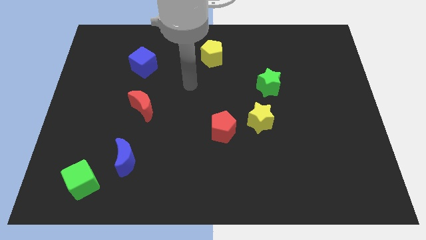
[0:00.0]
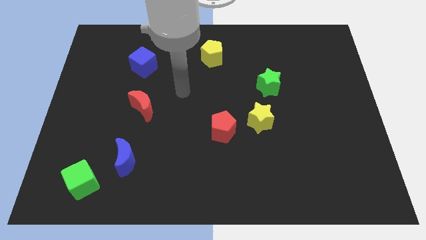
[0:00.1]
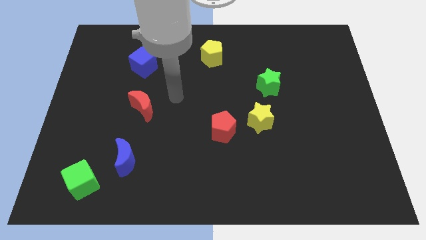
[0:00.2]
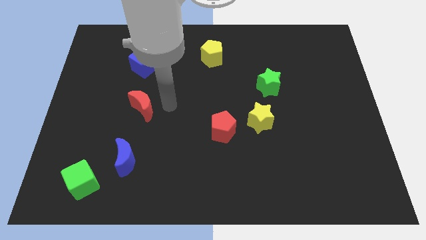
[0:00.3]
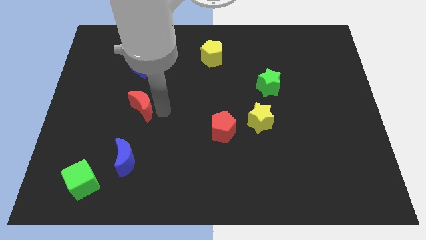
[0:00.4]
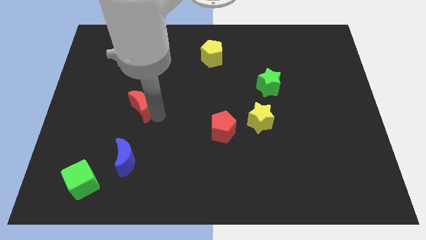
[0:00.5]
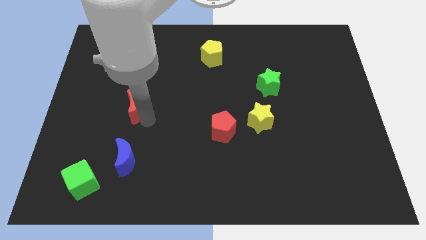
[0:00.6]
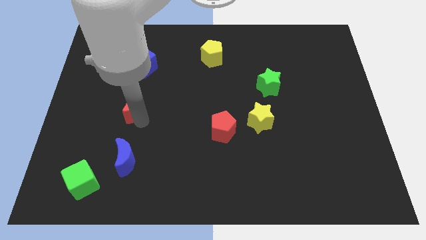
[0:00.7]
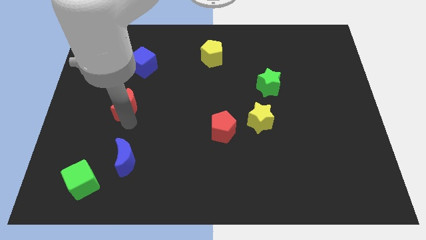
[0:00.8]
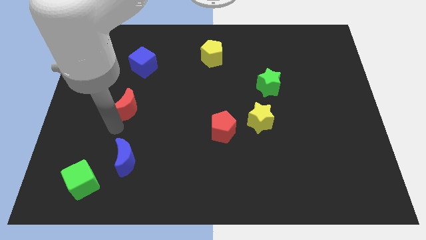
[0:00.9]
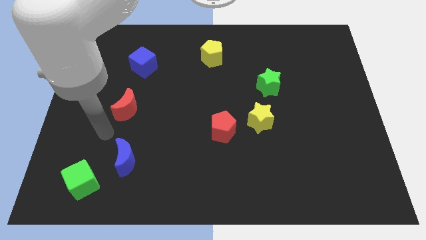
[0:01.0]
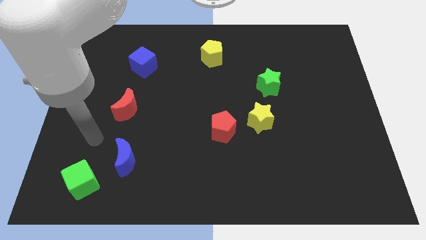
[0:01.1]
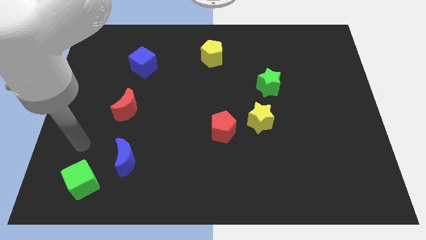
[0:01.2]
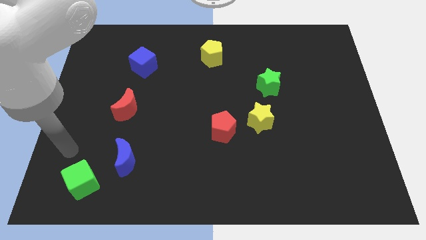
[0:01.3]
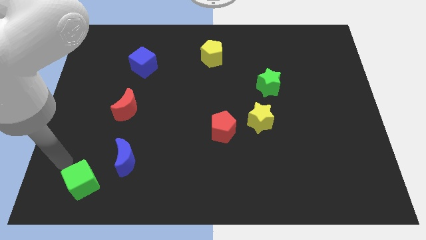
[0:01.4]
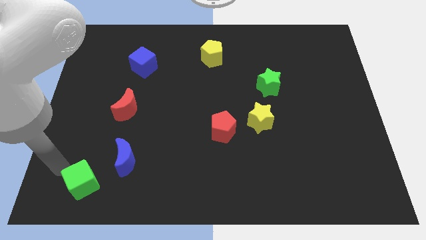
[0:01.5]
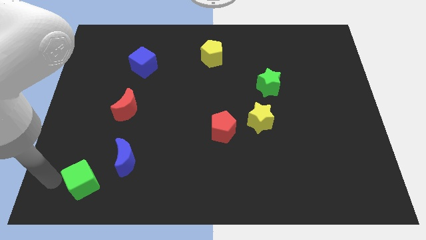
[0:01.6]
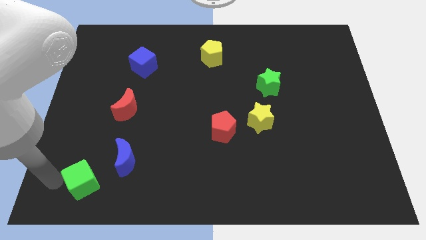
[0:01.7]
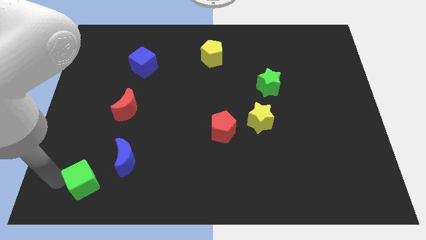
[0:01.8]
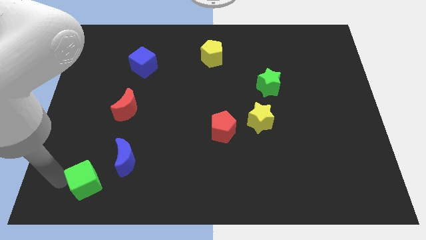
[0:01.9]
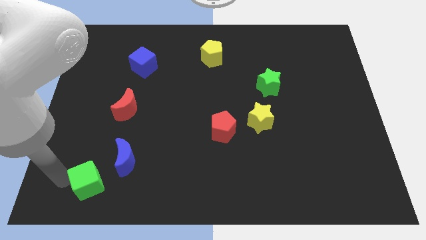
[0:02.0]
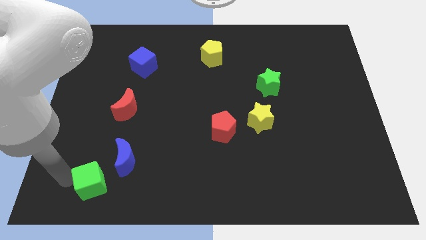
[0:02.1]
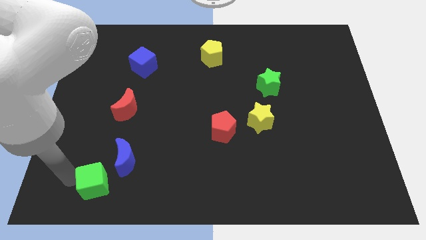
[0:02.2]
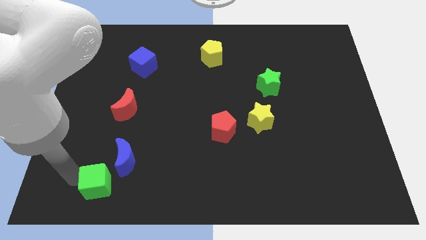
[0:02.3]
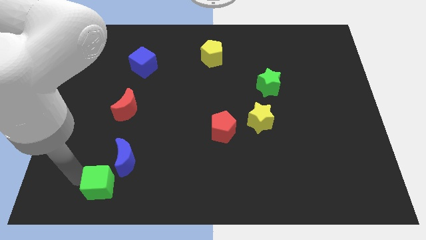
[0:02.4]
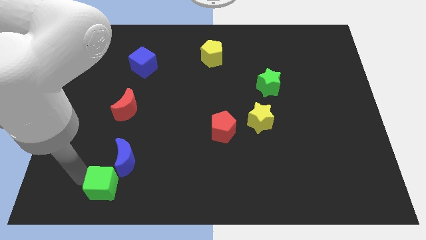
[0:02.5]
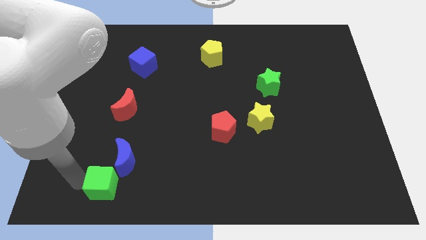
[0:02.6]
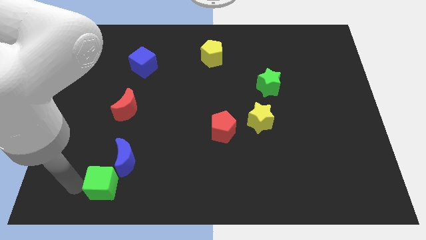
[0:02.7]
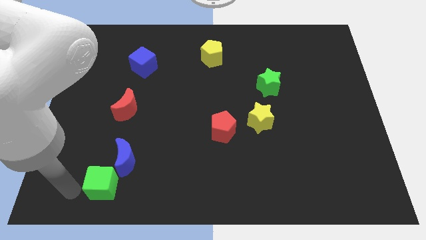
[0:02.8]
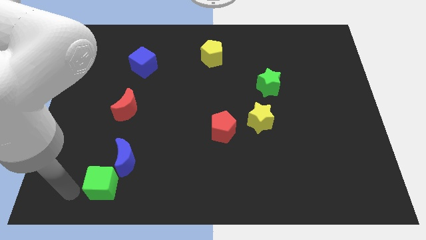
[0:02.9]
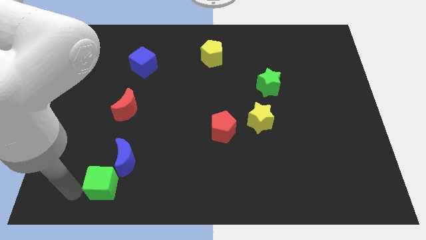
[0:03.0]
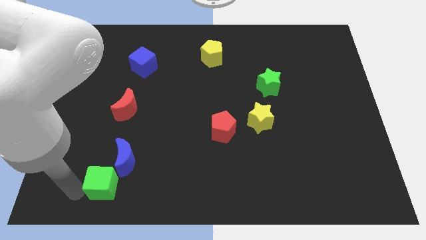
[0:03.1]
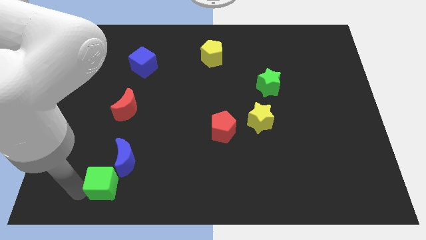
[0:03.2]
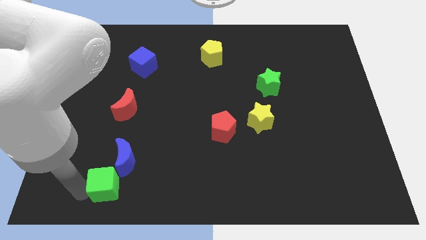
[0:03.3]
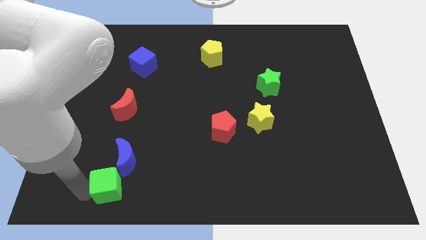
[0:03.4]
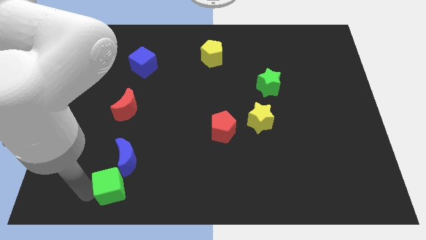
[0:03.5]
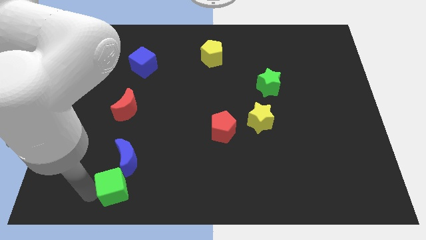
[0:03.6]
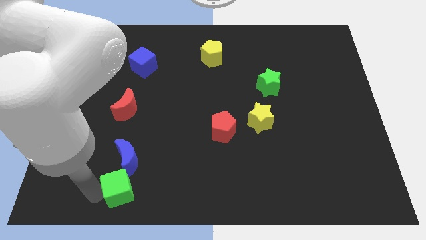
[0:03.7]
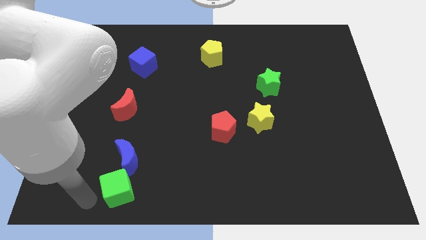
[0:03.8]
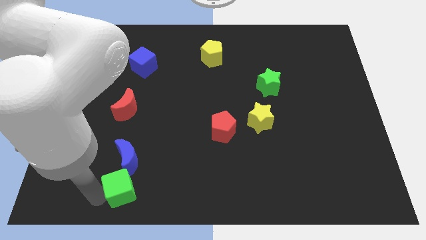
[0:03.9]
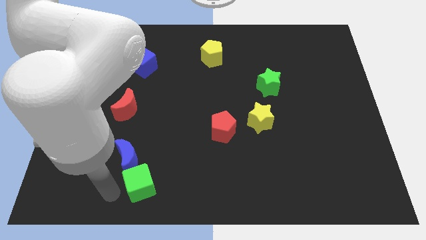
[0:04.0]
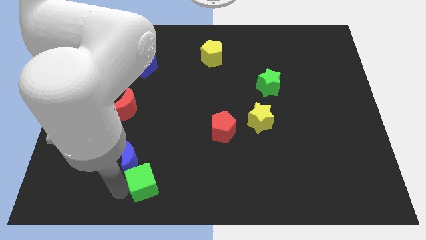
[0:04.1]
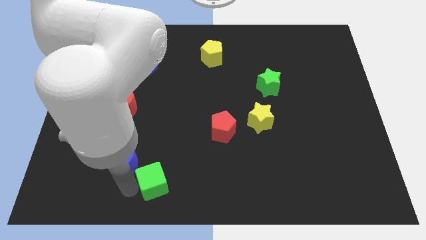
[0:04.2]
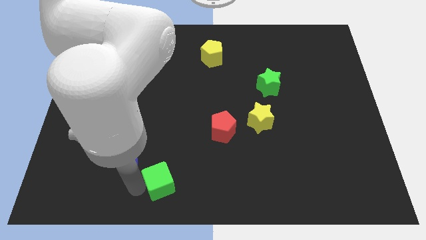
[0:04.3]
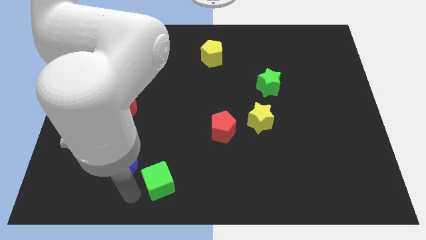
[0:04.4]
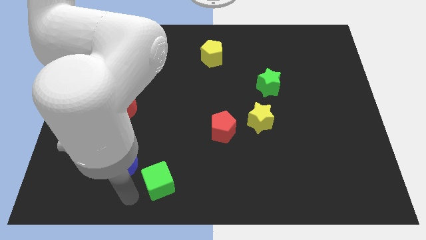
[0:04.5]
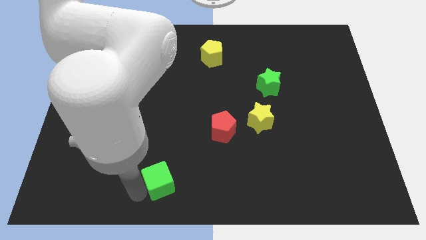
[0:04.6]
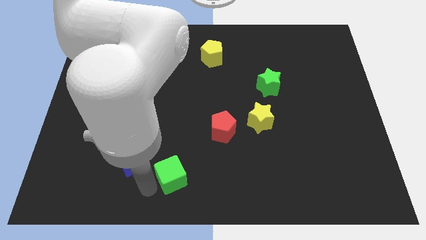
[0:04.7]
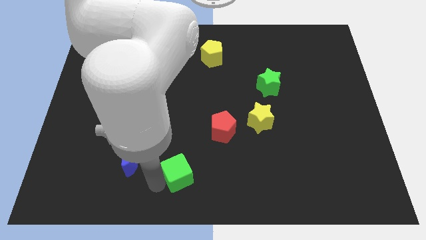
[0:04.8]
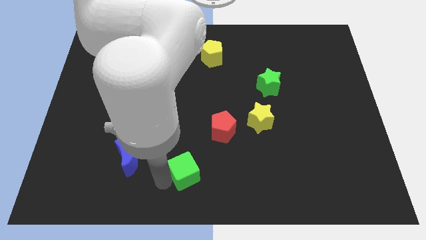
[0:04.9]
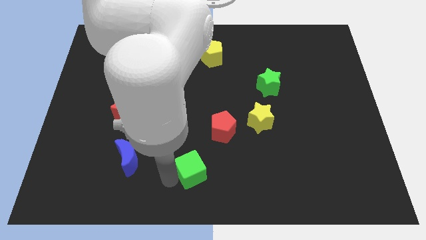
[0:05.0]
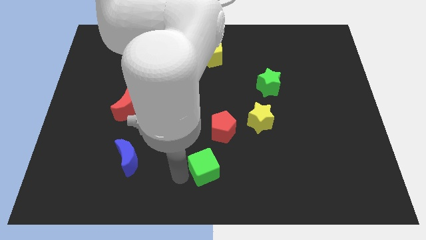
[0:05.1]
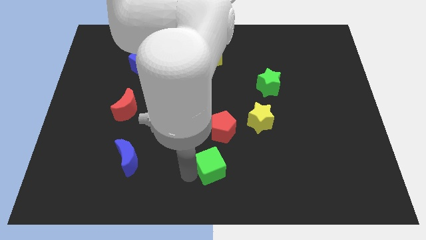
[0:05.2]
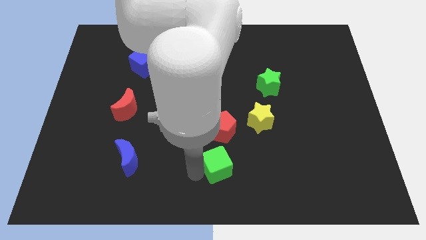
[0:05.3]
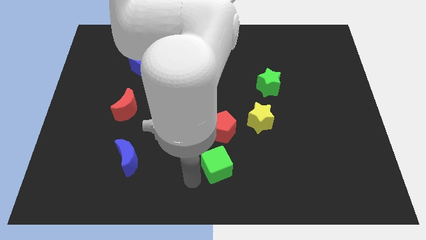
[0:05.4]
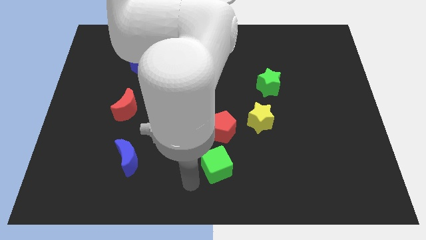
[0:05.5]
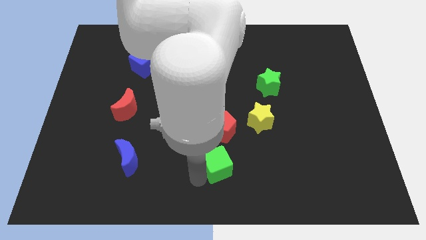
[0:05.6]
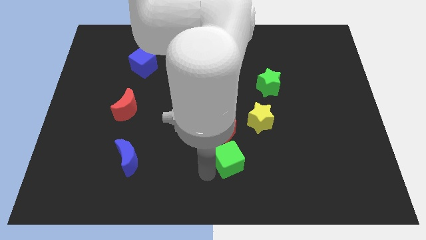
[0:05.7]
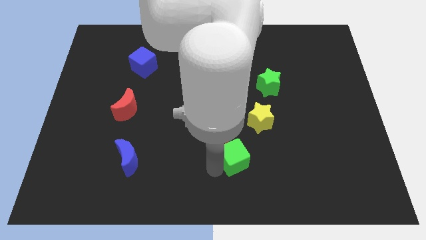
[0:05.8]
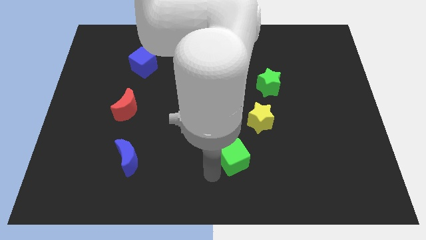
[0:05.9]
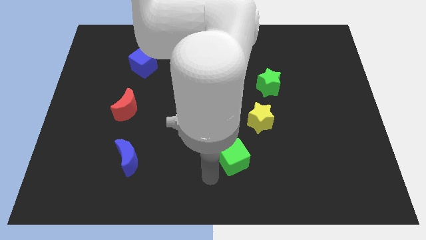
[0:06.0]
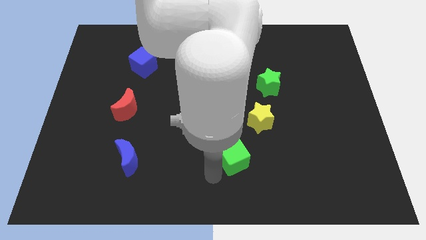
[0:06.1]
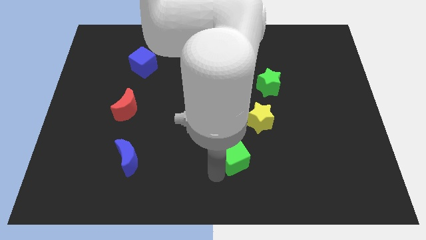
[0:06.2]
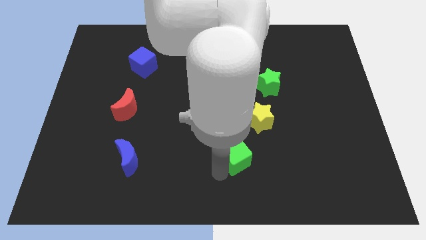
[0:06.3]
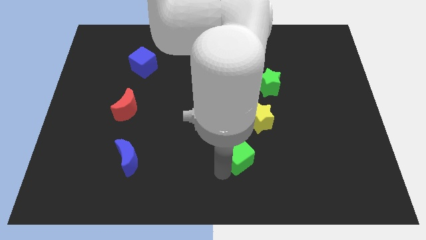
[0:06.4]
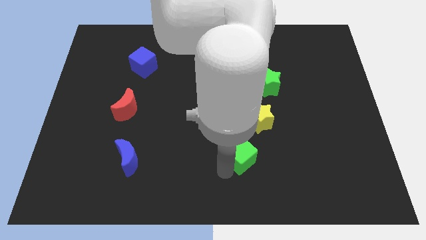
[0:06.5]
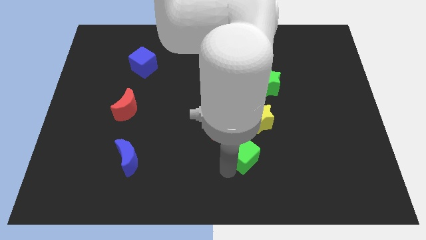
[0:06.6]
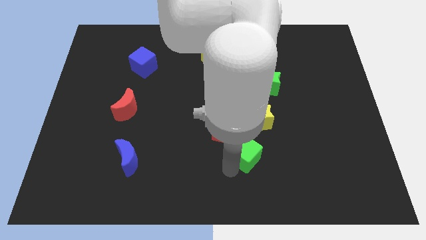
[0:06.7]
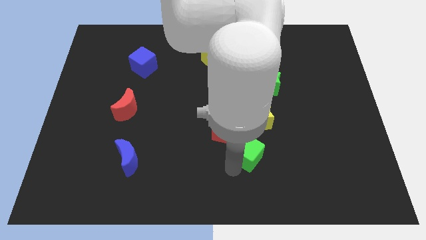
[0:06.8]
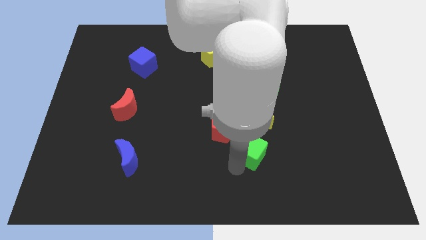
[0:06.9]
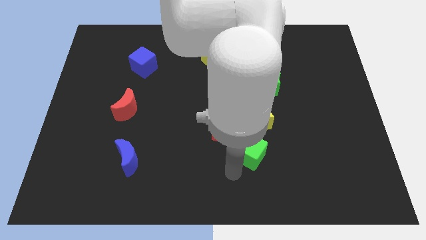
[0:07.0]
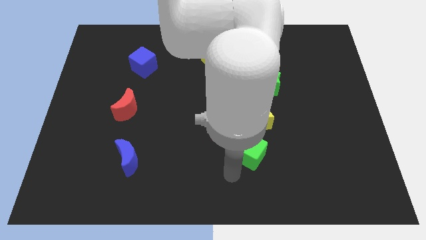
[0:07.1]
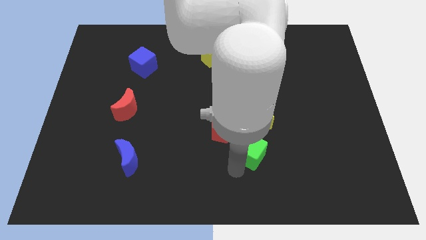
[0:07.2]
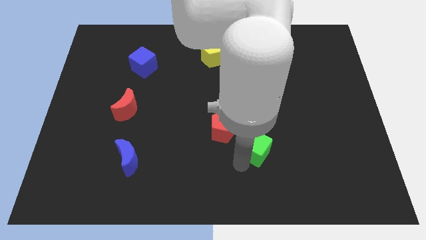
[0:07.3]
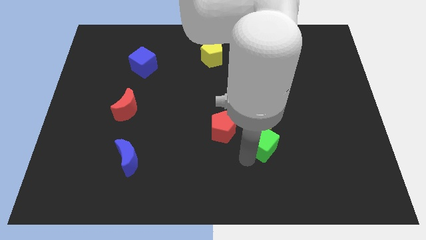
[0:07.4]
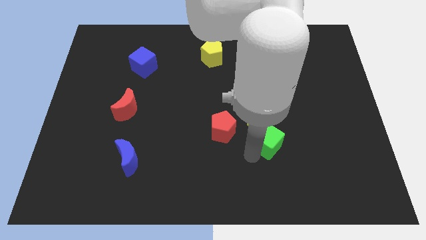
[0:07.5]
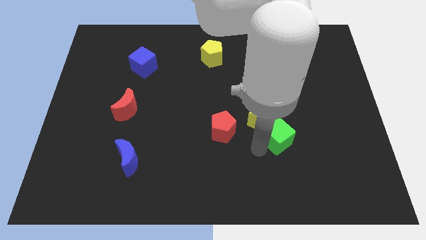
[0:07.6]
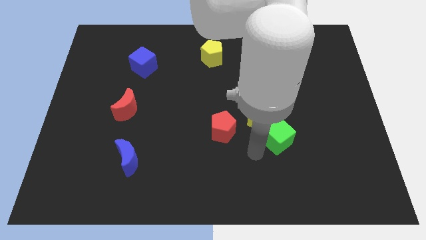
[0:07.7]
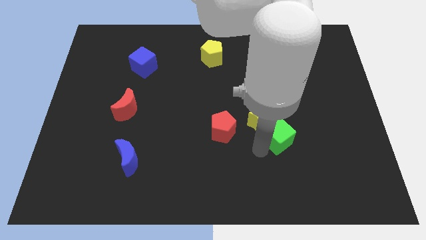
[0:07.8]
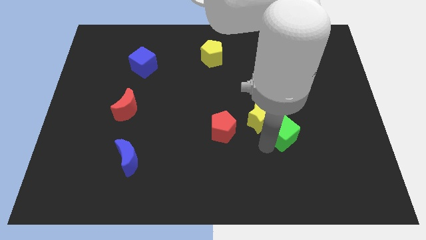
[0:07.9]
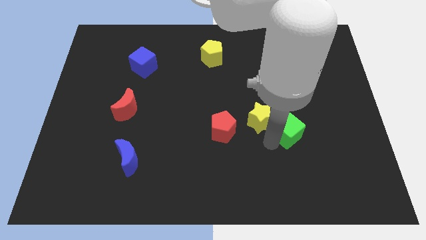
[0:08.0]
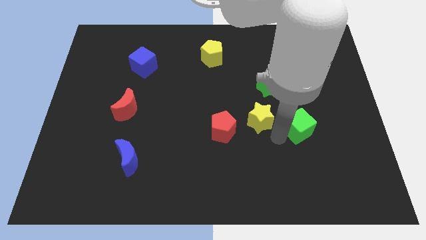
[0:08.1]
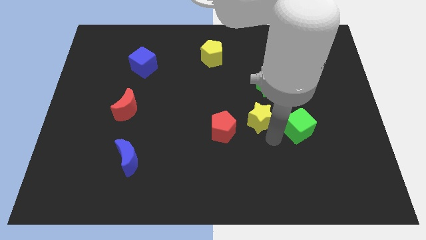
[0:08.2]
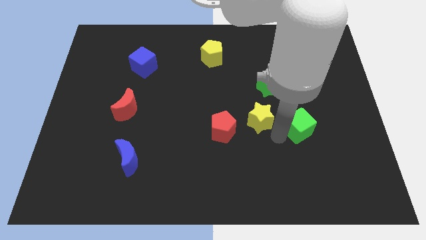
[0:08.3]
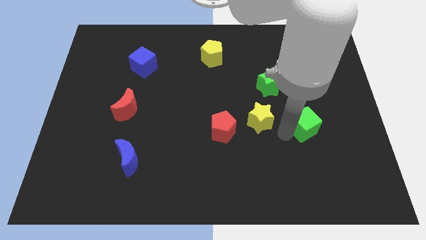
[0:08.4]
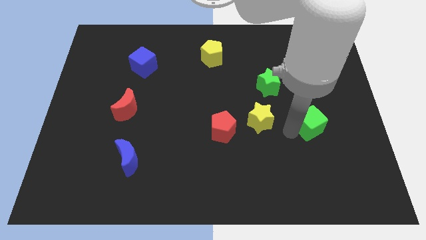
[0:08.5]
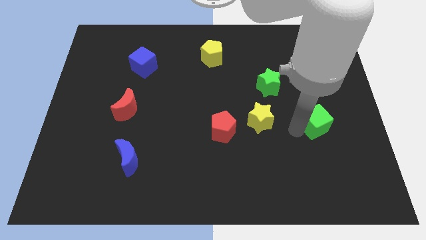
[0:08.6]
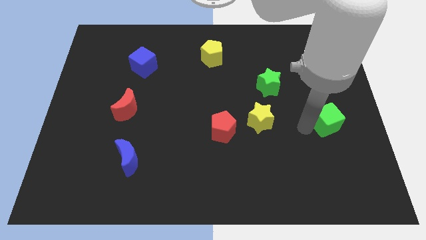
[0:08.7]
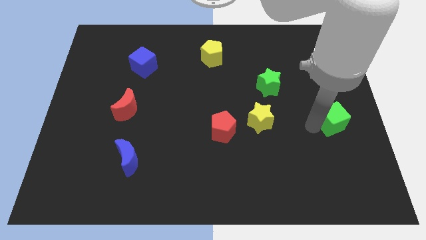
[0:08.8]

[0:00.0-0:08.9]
move the green cube to the center right
